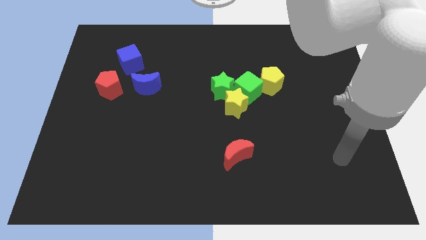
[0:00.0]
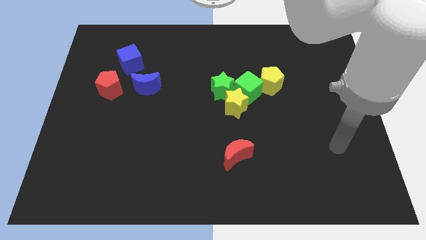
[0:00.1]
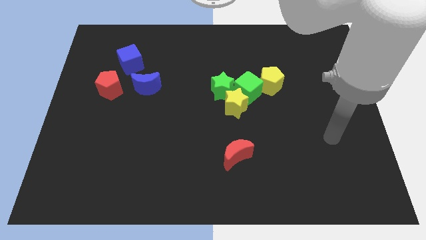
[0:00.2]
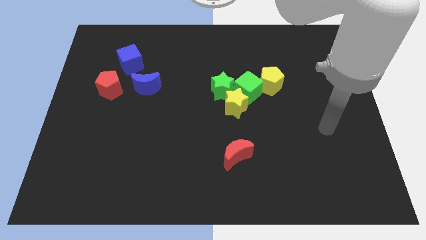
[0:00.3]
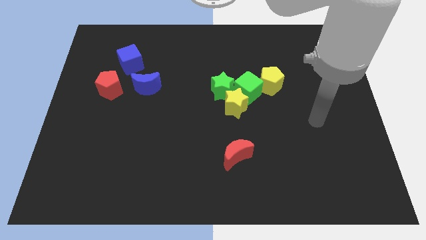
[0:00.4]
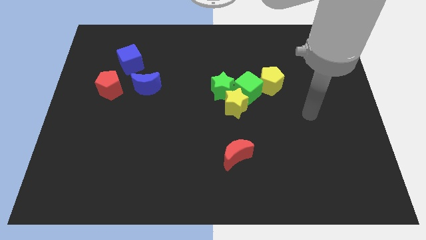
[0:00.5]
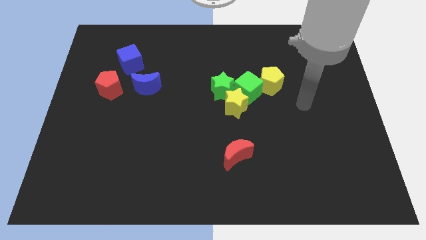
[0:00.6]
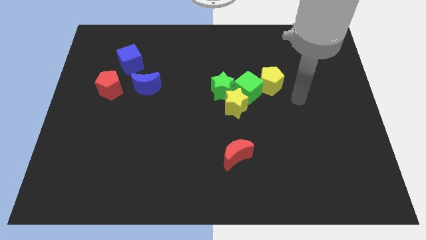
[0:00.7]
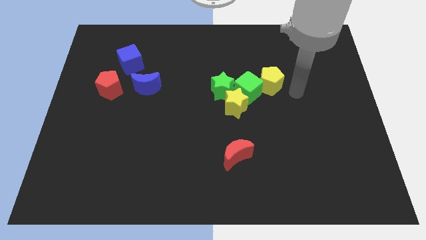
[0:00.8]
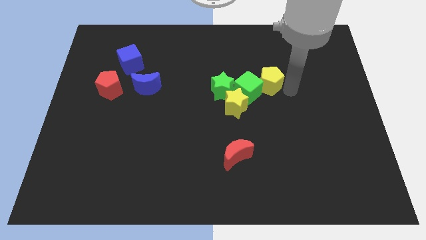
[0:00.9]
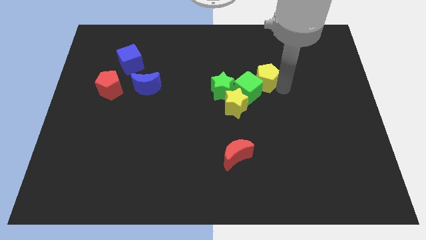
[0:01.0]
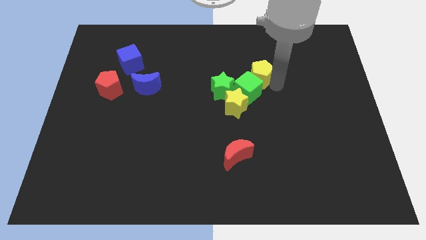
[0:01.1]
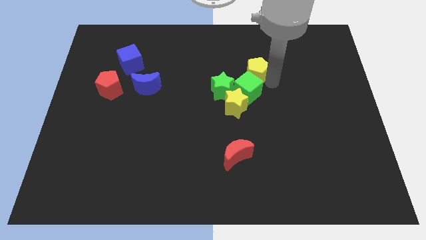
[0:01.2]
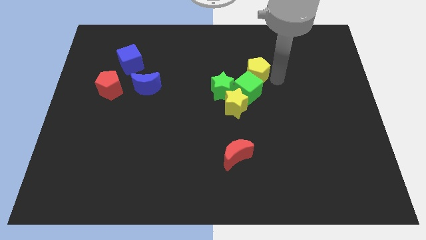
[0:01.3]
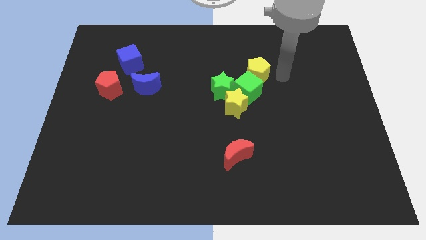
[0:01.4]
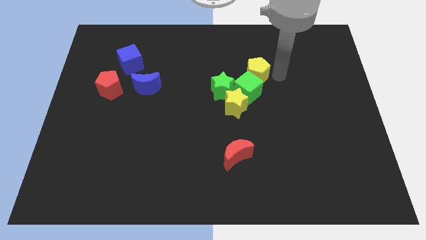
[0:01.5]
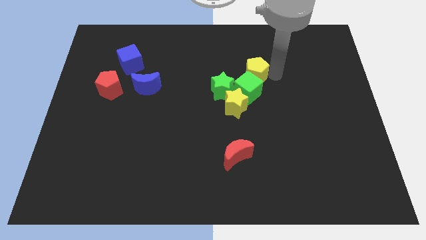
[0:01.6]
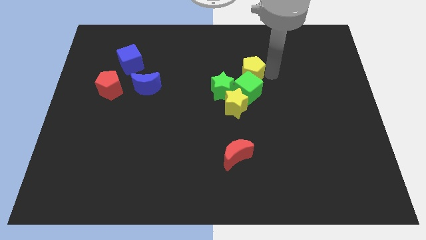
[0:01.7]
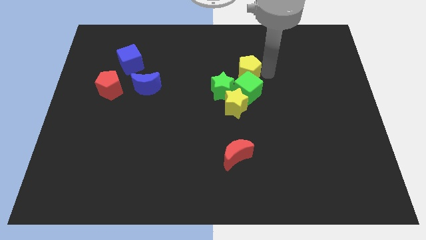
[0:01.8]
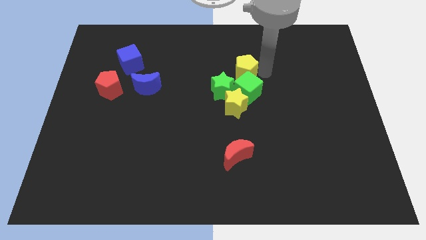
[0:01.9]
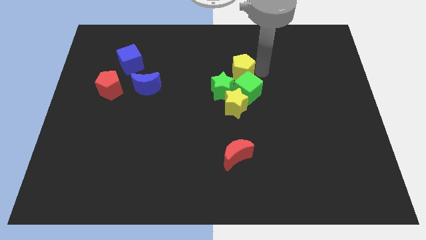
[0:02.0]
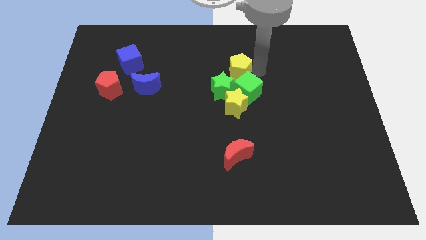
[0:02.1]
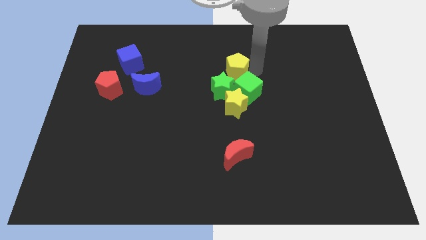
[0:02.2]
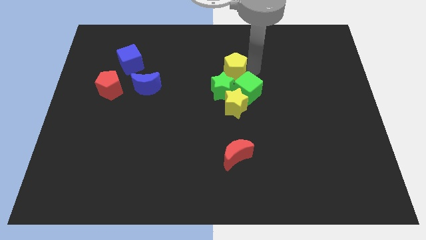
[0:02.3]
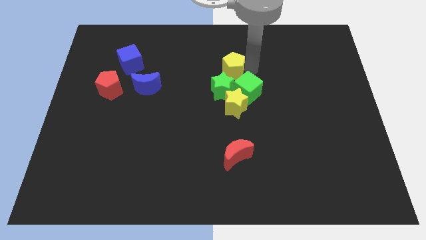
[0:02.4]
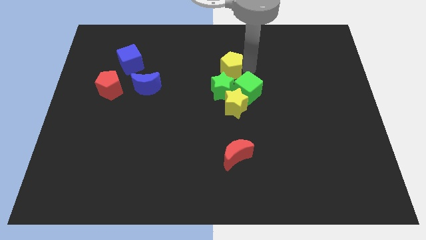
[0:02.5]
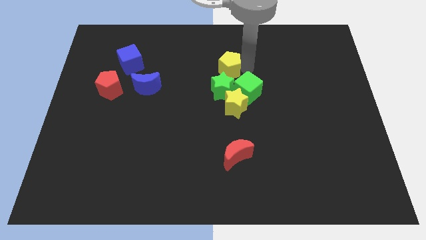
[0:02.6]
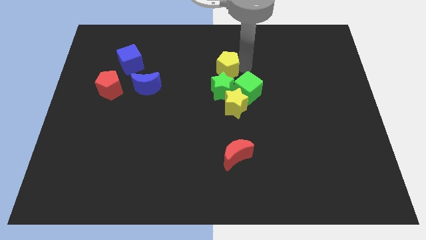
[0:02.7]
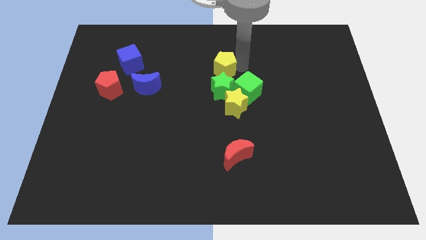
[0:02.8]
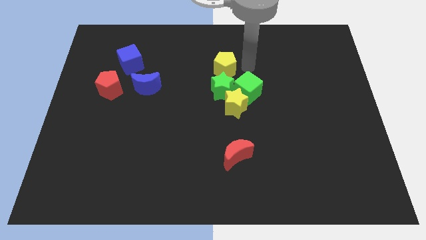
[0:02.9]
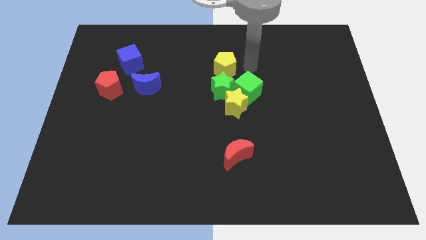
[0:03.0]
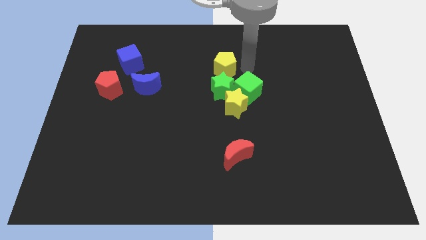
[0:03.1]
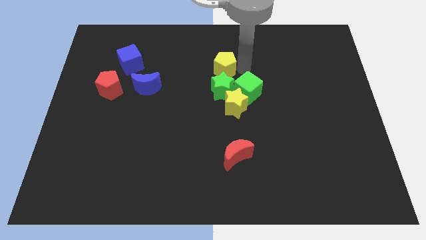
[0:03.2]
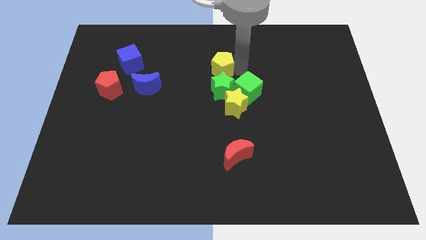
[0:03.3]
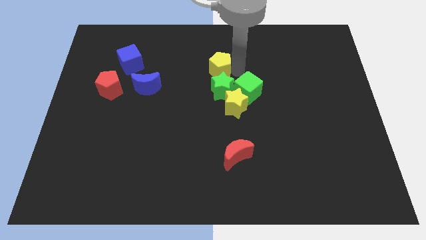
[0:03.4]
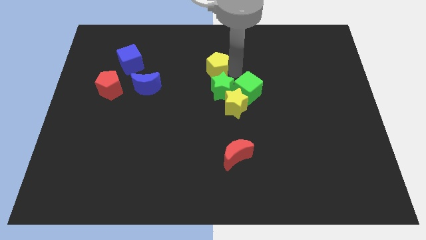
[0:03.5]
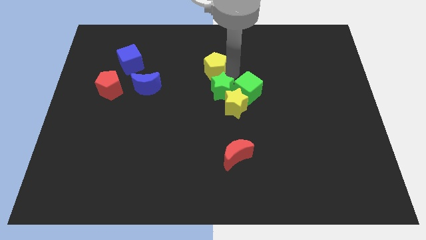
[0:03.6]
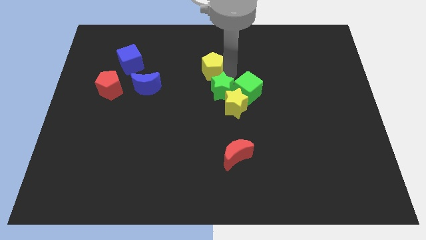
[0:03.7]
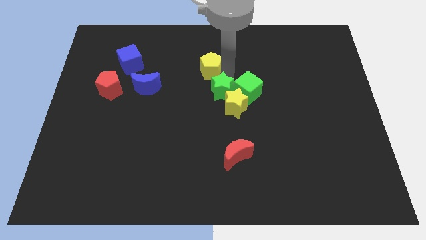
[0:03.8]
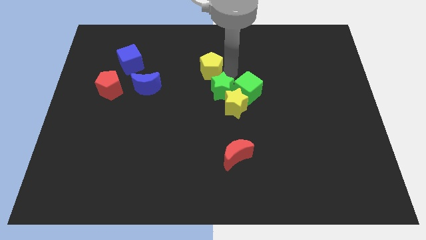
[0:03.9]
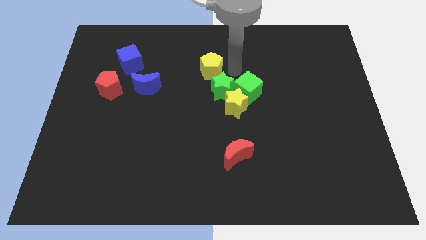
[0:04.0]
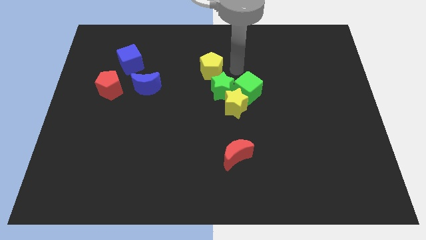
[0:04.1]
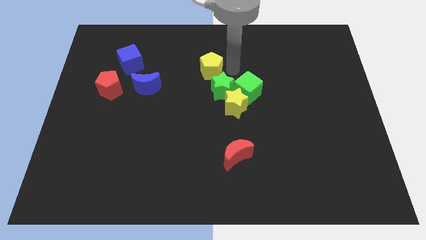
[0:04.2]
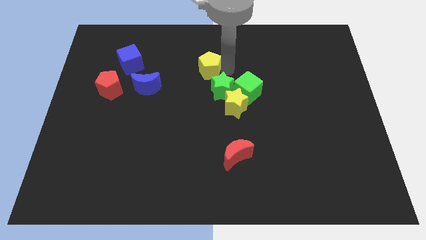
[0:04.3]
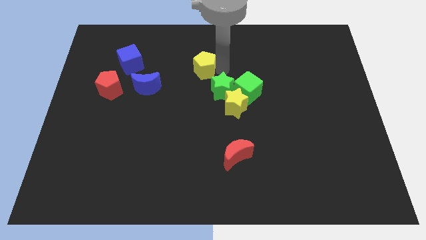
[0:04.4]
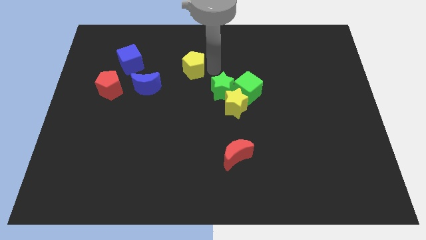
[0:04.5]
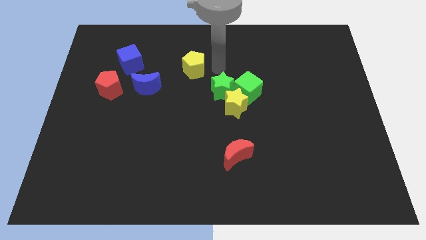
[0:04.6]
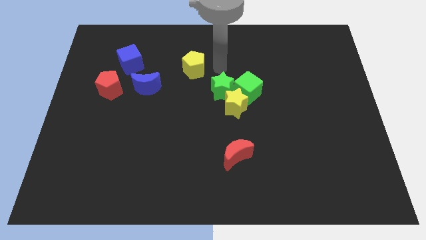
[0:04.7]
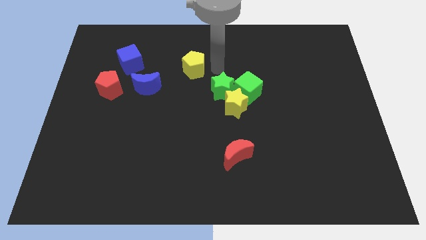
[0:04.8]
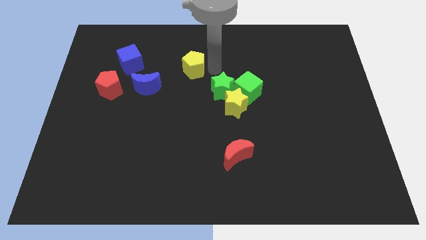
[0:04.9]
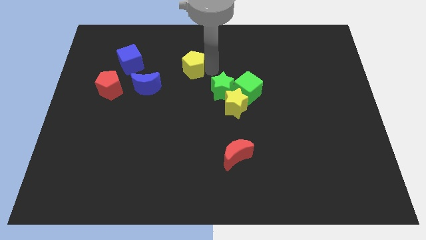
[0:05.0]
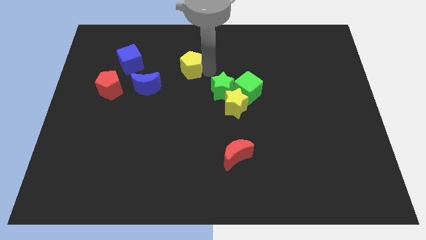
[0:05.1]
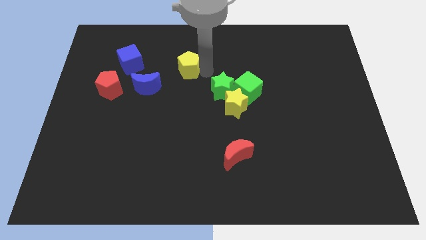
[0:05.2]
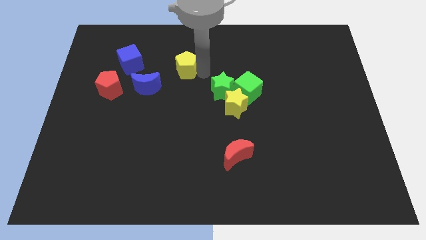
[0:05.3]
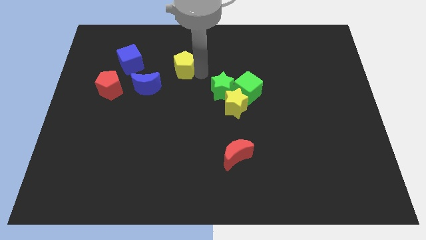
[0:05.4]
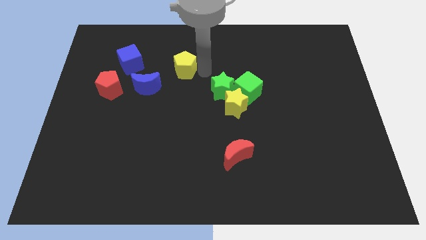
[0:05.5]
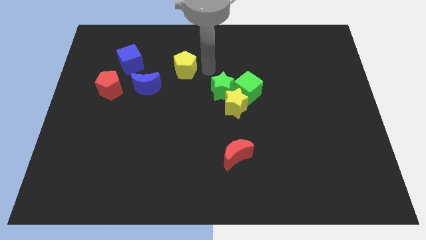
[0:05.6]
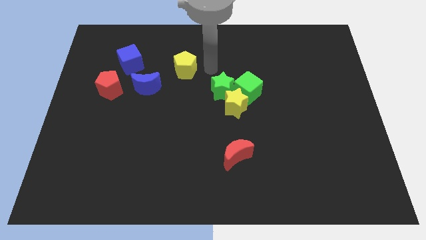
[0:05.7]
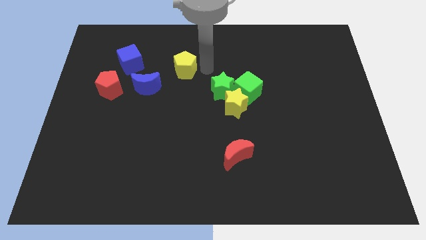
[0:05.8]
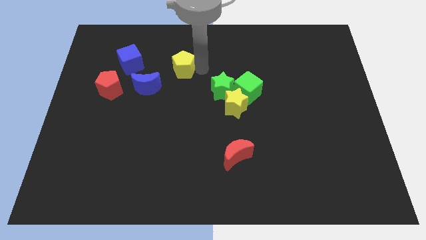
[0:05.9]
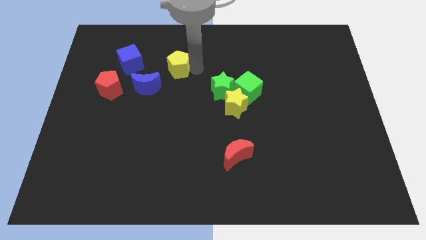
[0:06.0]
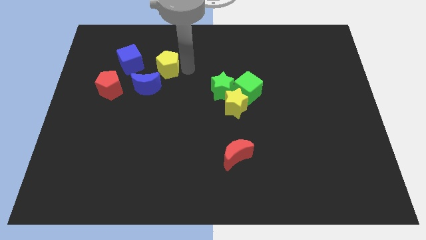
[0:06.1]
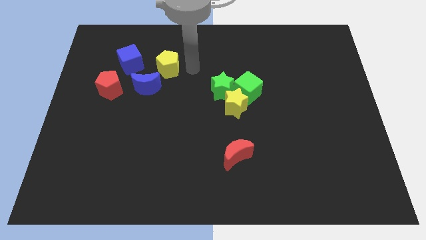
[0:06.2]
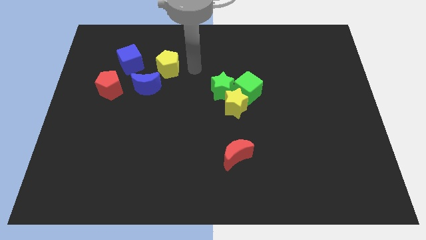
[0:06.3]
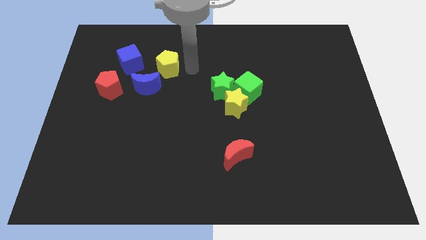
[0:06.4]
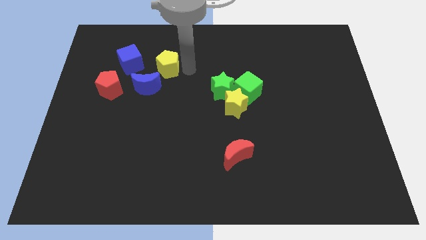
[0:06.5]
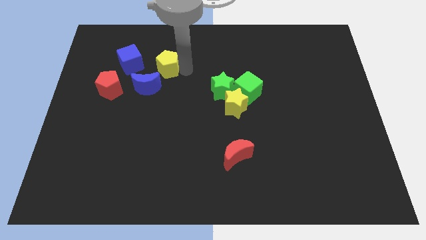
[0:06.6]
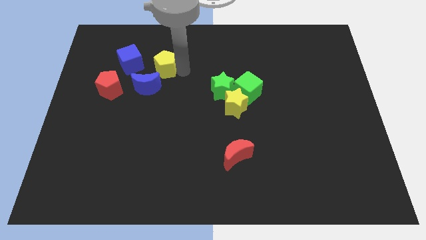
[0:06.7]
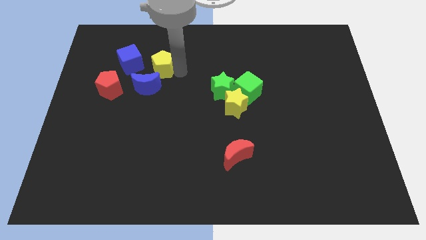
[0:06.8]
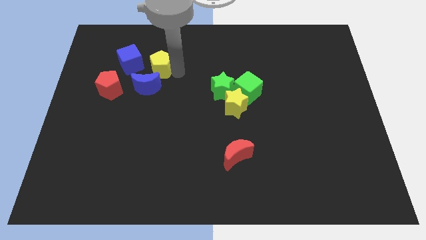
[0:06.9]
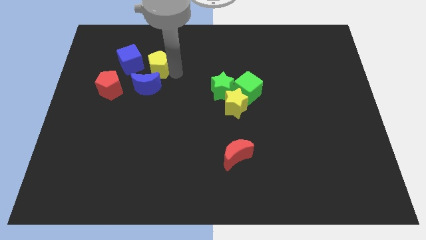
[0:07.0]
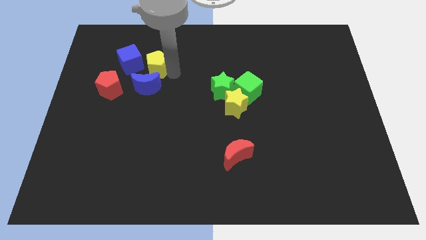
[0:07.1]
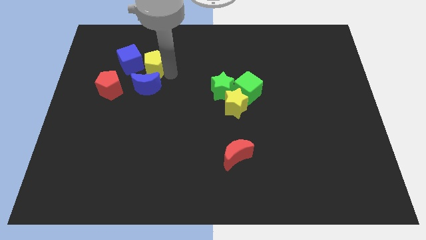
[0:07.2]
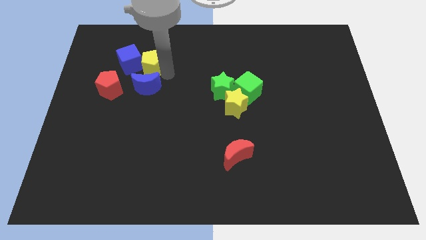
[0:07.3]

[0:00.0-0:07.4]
slide the yellow pentagon towards the blue cube

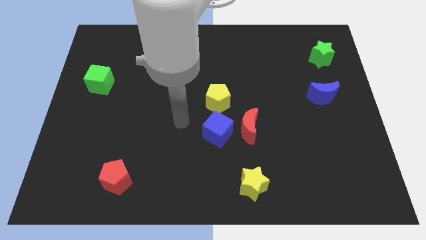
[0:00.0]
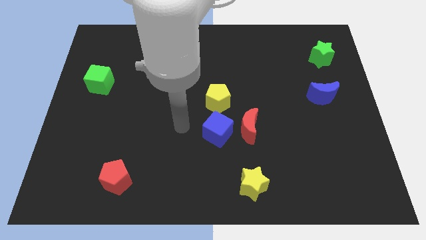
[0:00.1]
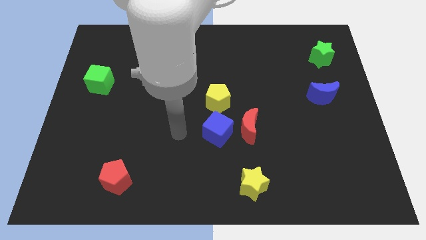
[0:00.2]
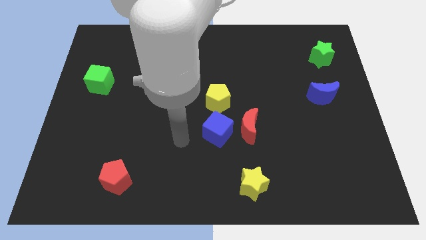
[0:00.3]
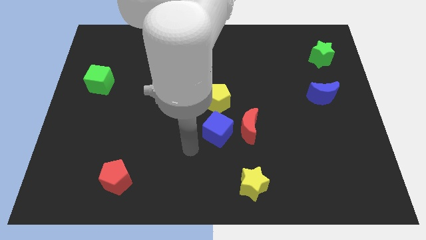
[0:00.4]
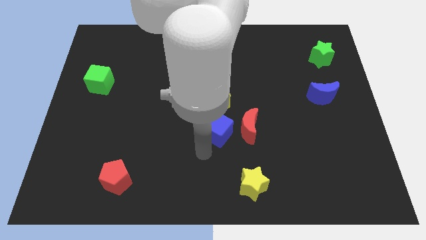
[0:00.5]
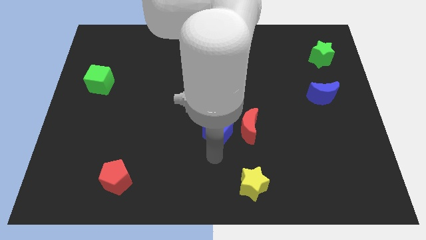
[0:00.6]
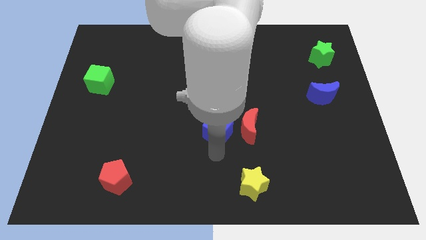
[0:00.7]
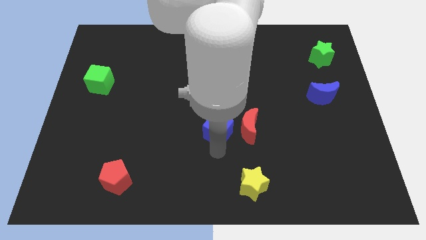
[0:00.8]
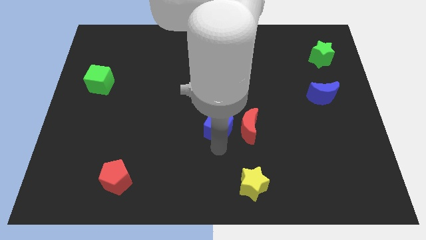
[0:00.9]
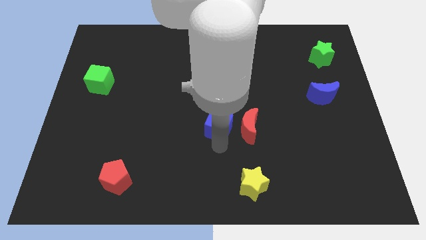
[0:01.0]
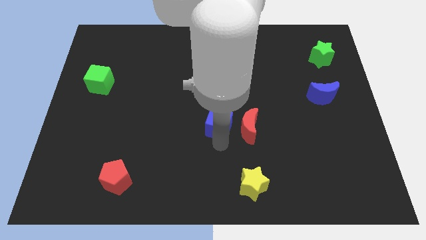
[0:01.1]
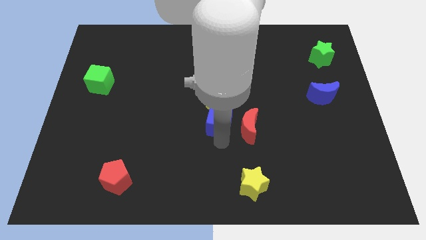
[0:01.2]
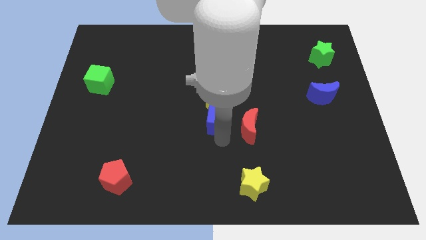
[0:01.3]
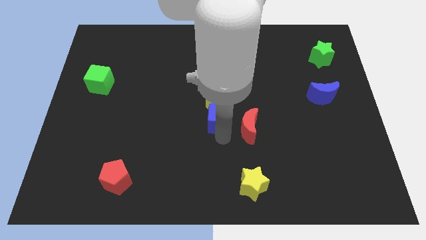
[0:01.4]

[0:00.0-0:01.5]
put the blue cube close to the yellow pentagon
